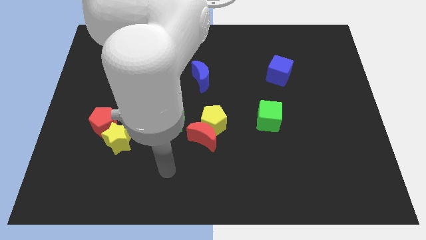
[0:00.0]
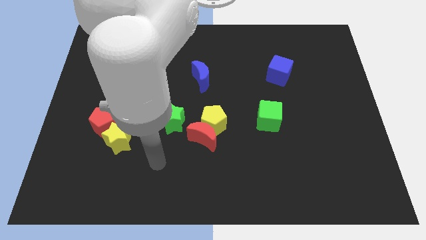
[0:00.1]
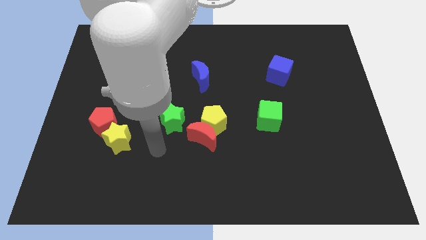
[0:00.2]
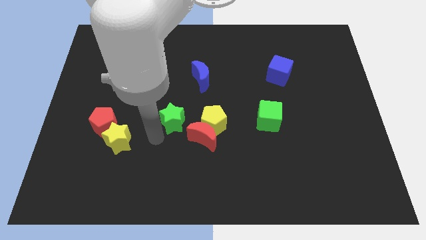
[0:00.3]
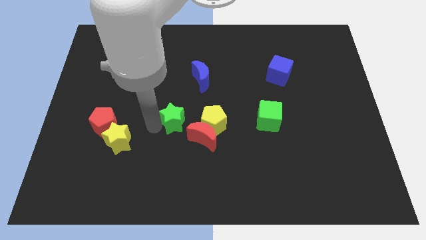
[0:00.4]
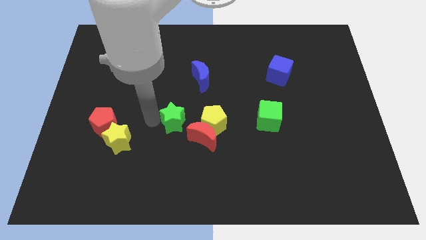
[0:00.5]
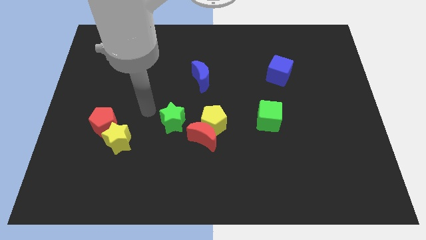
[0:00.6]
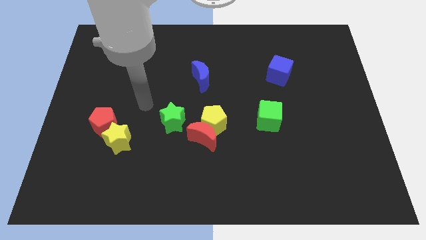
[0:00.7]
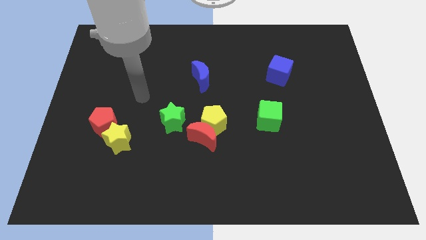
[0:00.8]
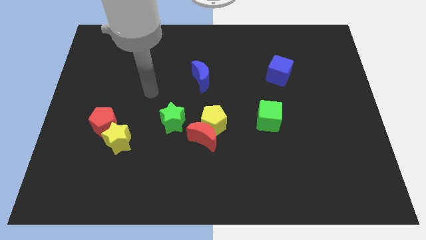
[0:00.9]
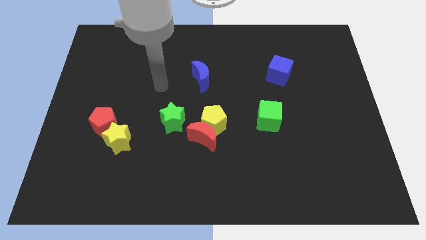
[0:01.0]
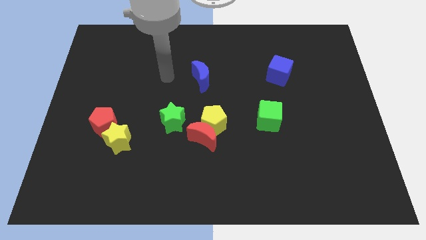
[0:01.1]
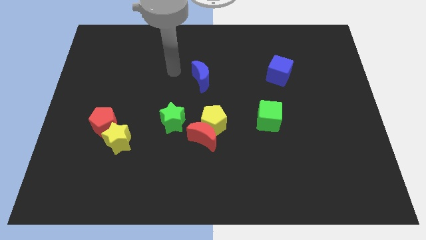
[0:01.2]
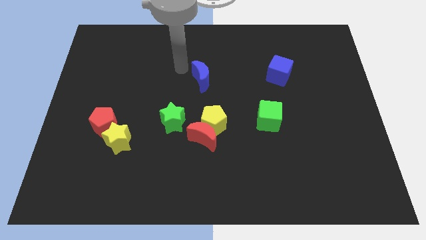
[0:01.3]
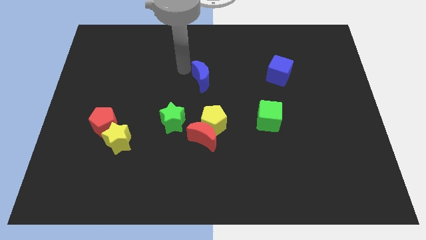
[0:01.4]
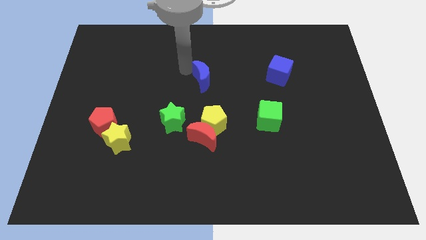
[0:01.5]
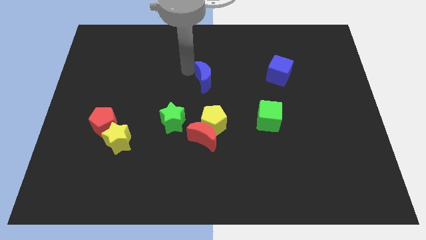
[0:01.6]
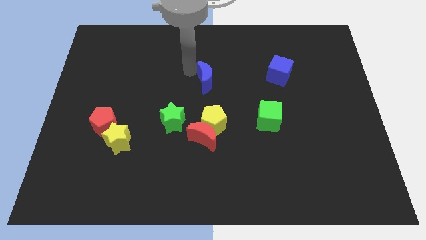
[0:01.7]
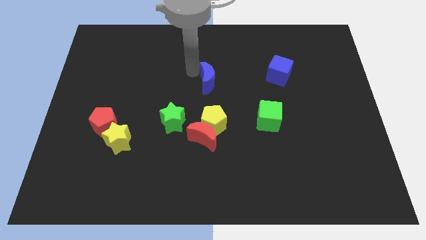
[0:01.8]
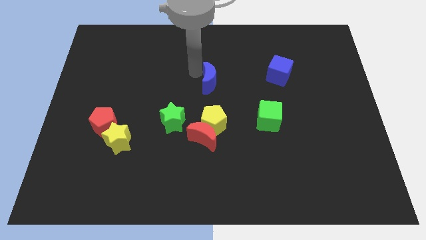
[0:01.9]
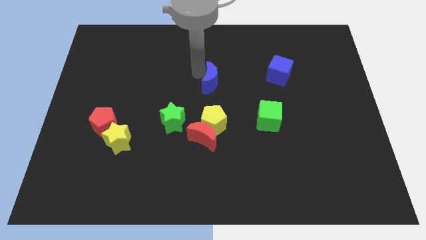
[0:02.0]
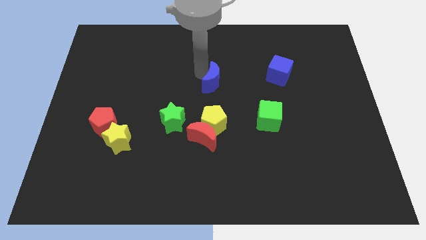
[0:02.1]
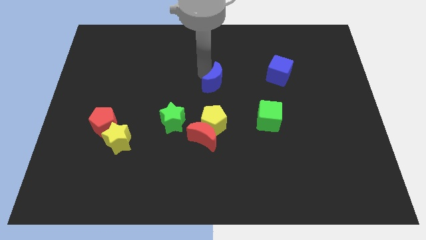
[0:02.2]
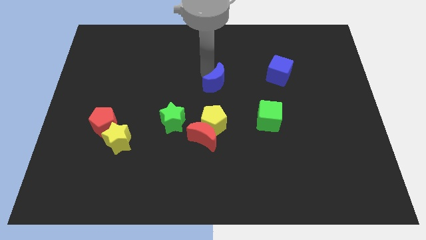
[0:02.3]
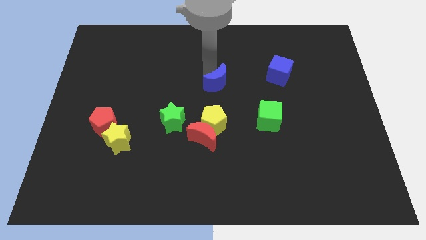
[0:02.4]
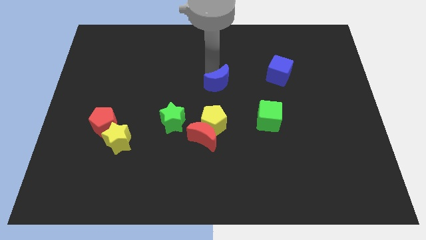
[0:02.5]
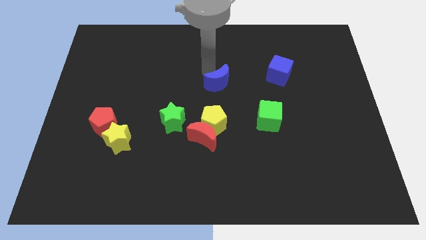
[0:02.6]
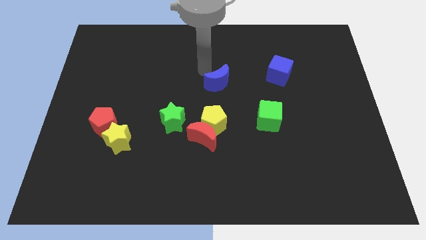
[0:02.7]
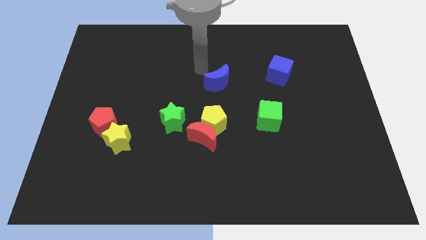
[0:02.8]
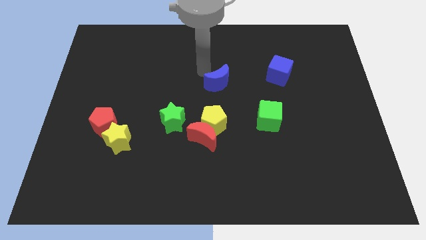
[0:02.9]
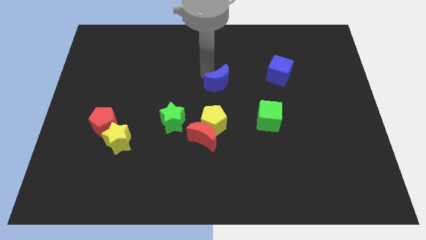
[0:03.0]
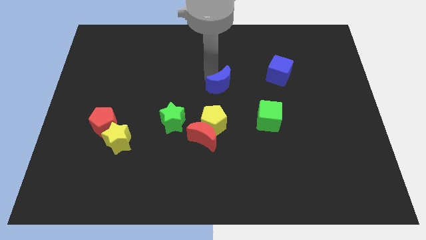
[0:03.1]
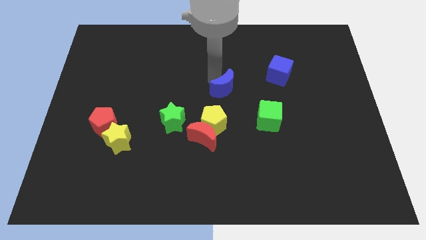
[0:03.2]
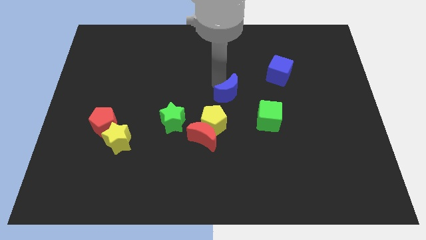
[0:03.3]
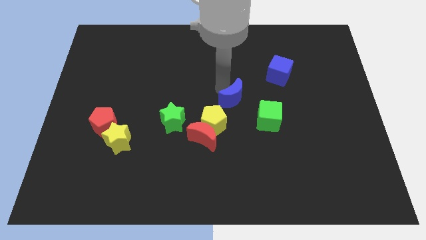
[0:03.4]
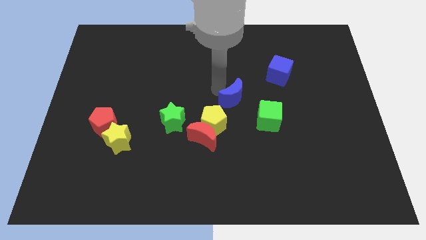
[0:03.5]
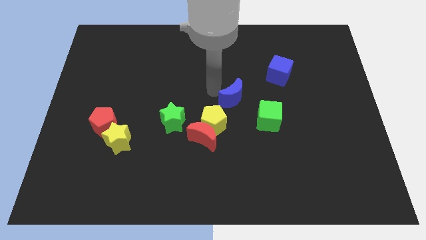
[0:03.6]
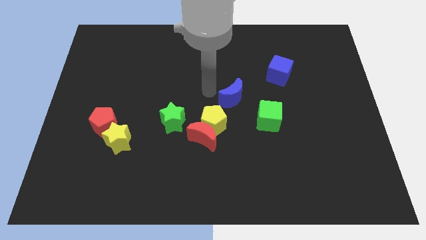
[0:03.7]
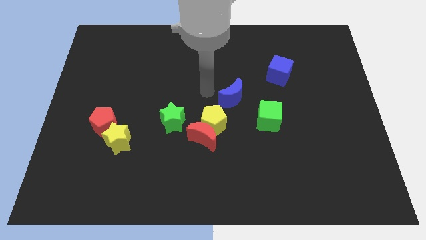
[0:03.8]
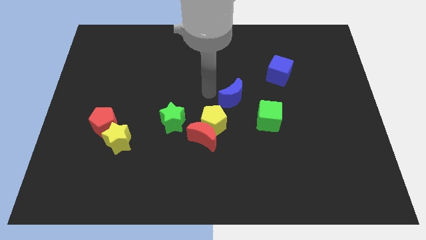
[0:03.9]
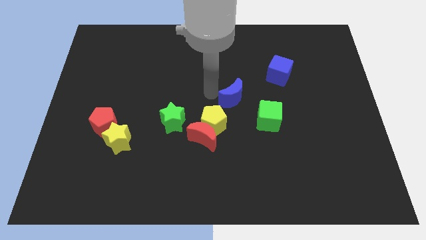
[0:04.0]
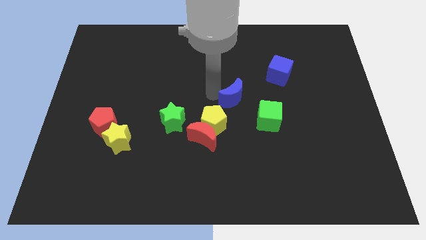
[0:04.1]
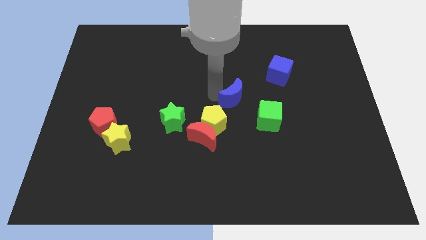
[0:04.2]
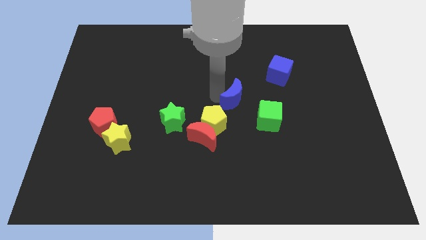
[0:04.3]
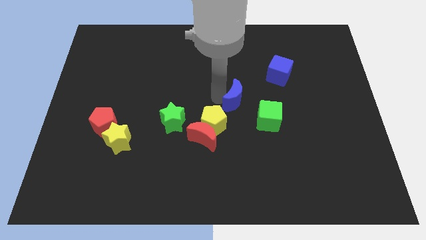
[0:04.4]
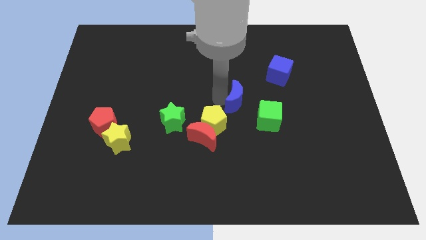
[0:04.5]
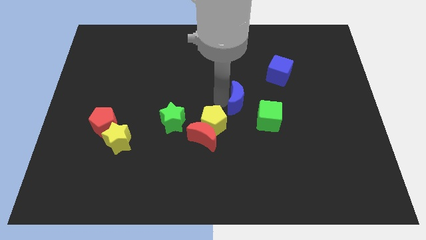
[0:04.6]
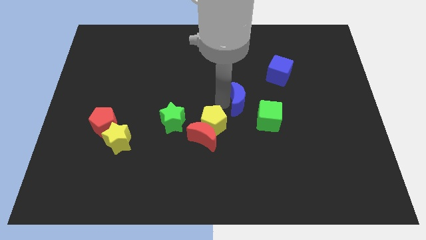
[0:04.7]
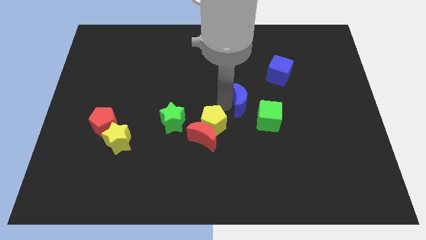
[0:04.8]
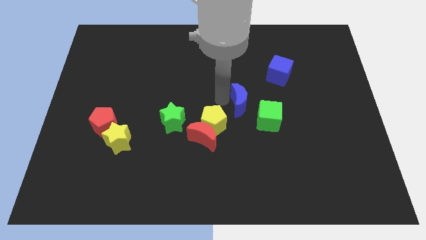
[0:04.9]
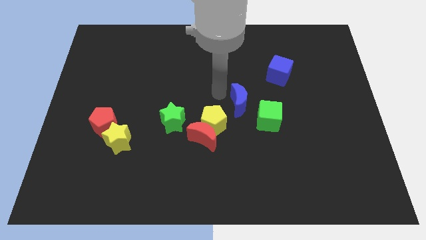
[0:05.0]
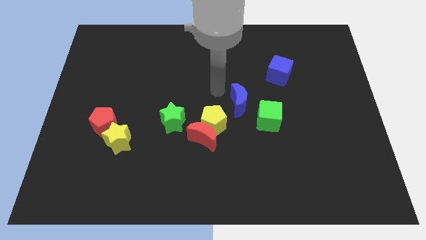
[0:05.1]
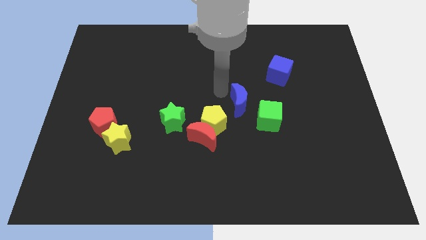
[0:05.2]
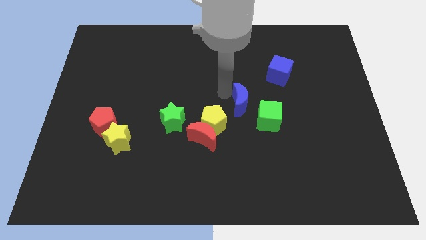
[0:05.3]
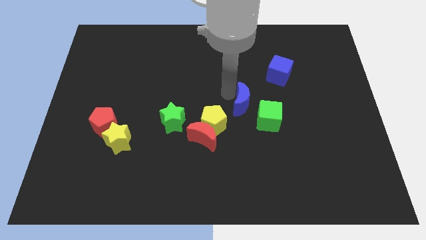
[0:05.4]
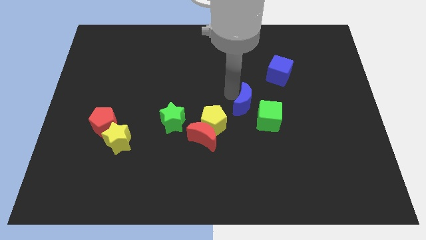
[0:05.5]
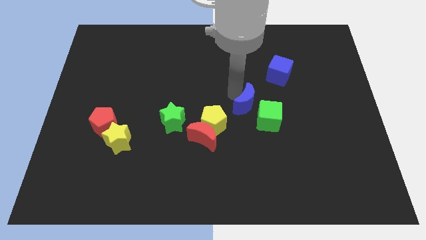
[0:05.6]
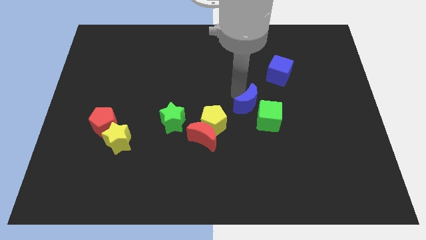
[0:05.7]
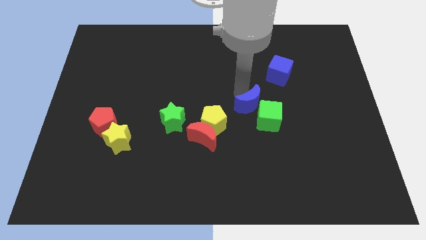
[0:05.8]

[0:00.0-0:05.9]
push the blue moon towards the green cube

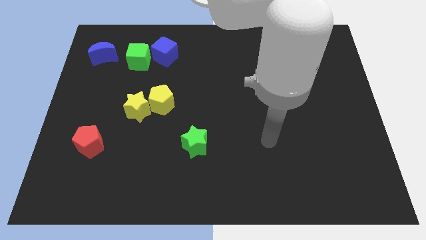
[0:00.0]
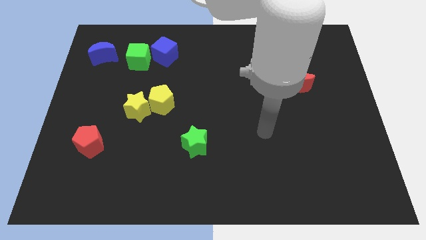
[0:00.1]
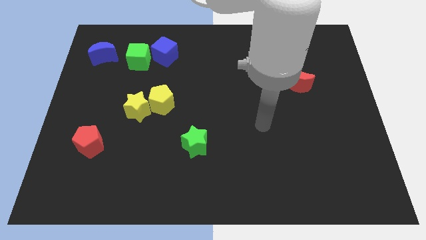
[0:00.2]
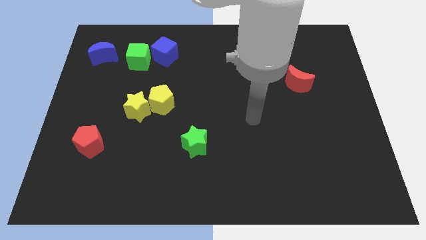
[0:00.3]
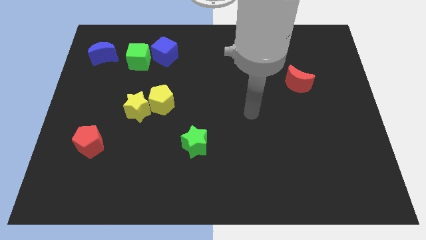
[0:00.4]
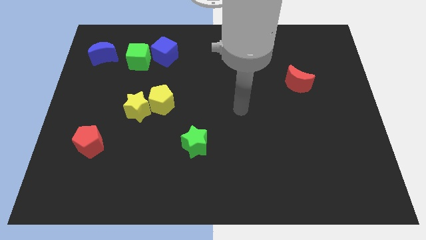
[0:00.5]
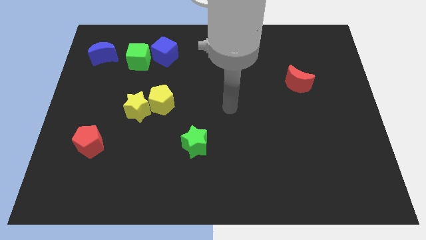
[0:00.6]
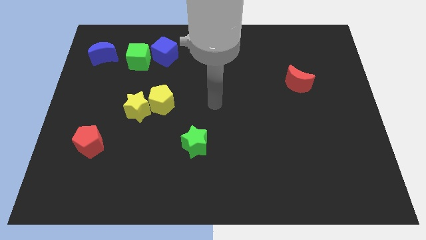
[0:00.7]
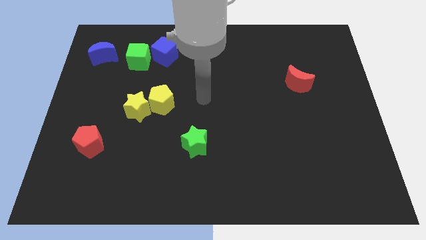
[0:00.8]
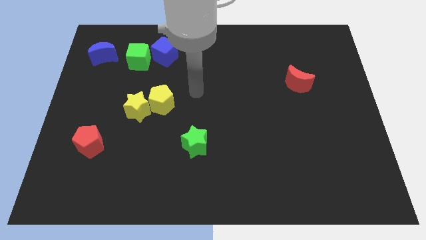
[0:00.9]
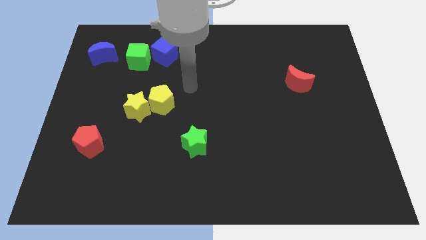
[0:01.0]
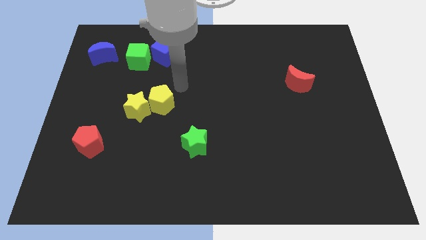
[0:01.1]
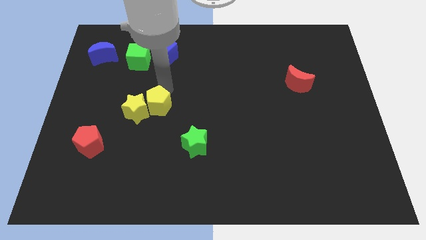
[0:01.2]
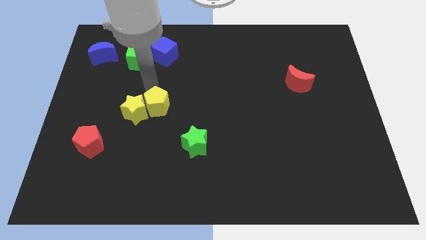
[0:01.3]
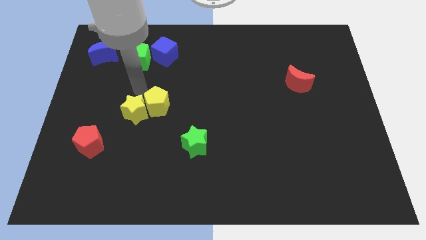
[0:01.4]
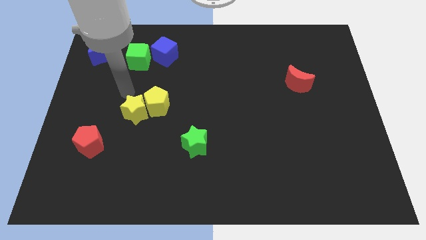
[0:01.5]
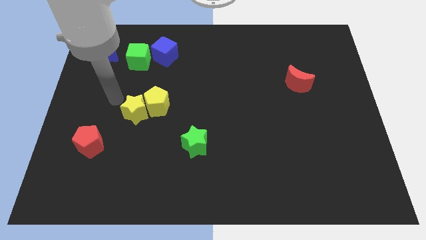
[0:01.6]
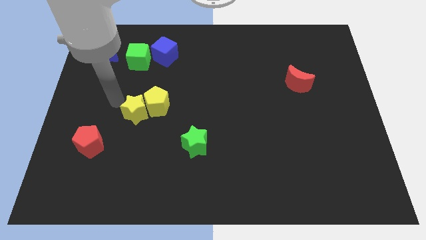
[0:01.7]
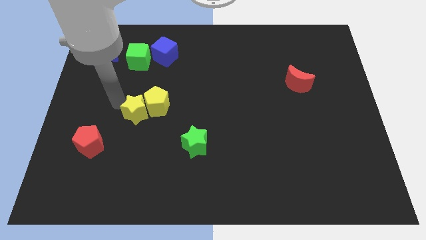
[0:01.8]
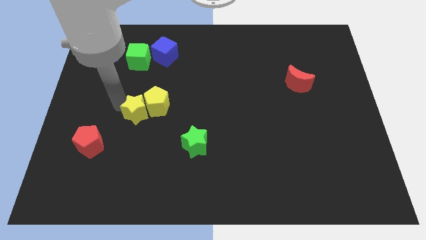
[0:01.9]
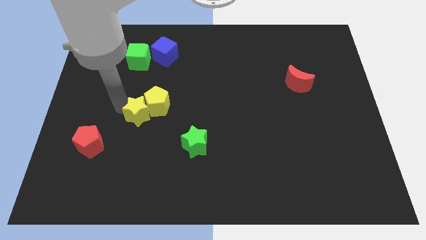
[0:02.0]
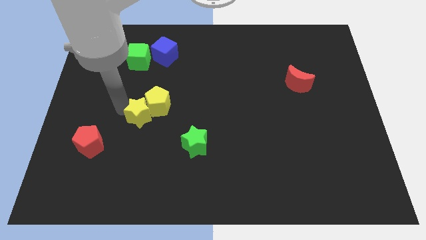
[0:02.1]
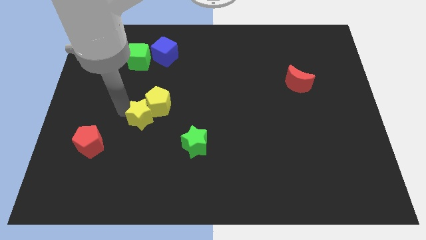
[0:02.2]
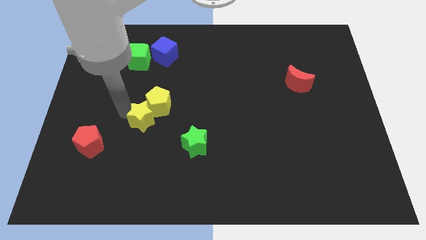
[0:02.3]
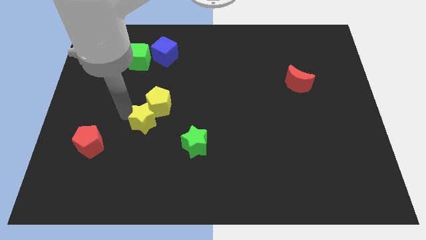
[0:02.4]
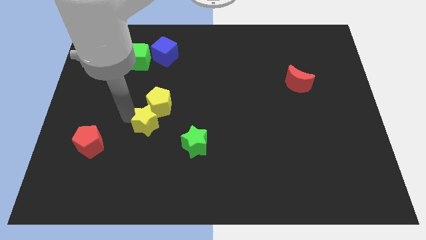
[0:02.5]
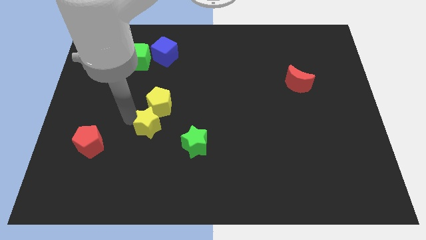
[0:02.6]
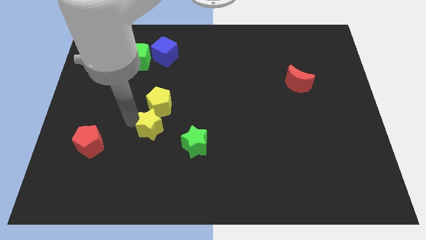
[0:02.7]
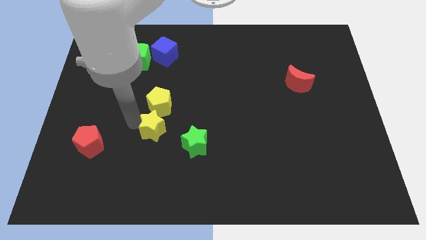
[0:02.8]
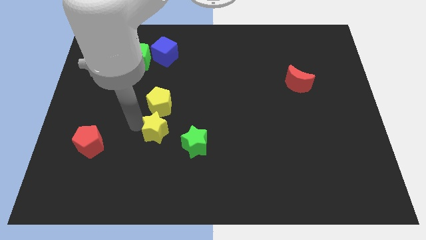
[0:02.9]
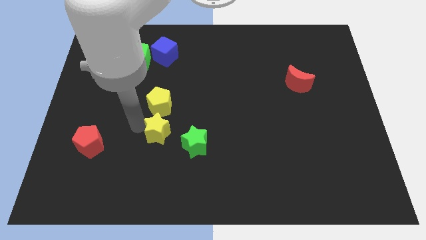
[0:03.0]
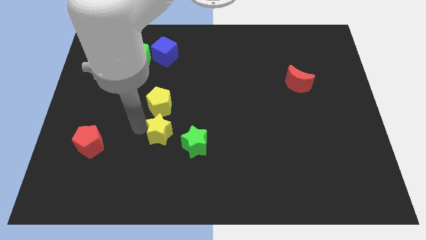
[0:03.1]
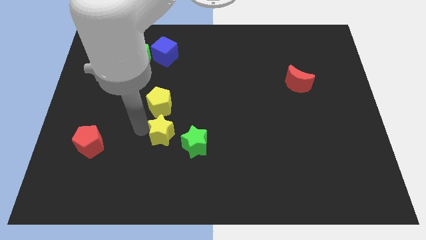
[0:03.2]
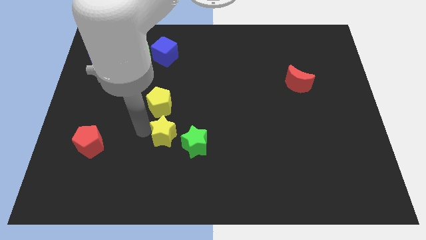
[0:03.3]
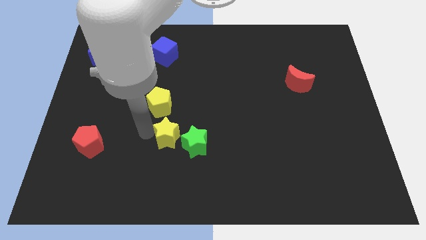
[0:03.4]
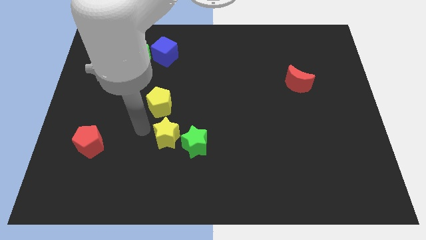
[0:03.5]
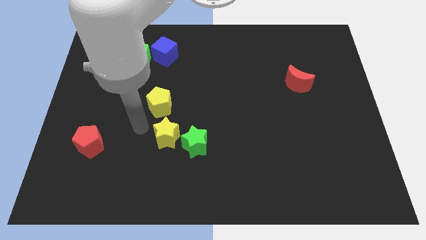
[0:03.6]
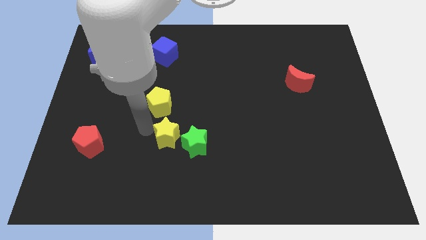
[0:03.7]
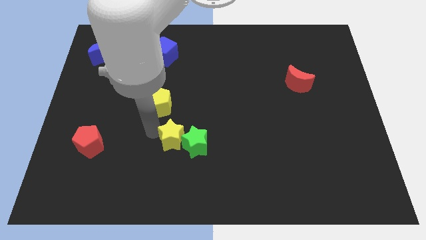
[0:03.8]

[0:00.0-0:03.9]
put the yellow star next to the green star
